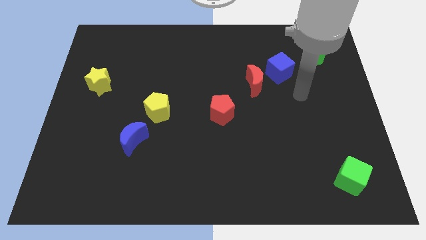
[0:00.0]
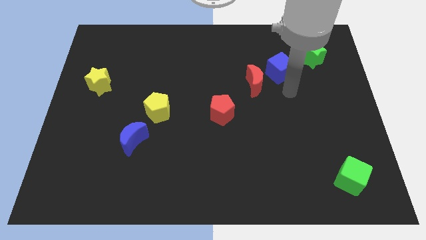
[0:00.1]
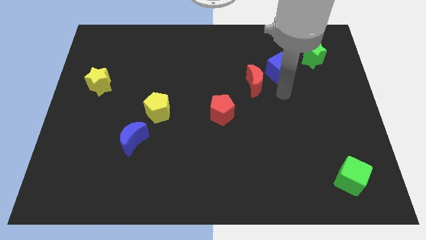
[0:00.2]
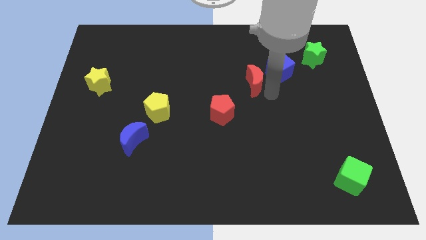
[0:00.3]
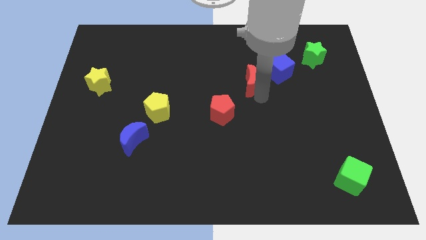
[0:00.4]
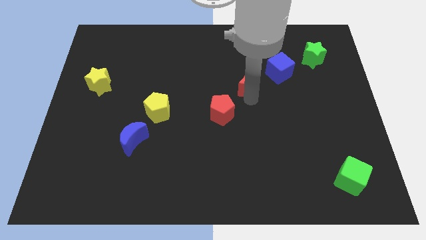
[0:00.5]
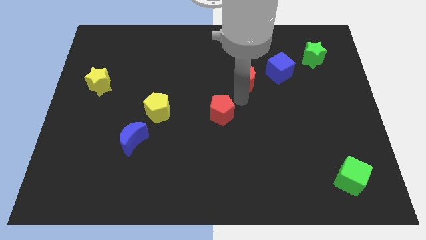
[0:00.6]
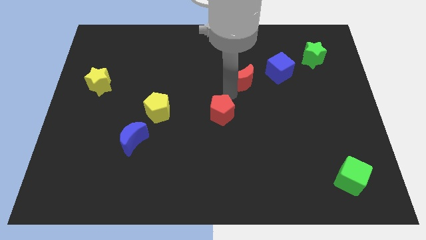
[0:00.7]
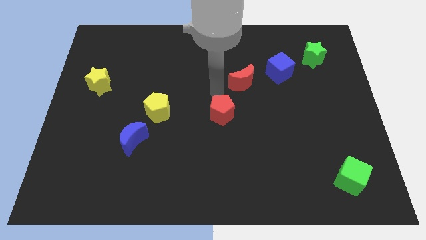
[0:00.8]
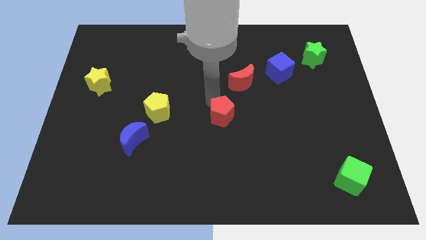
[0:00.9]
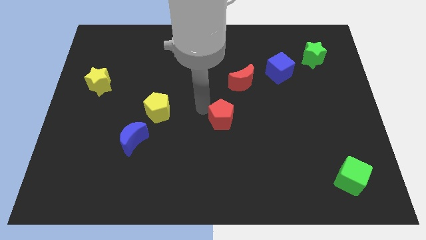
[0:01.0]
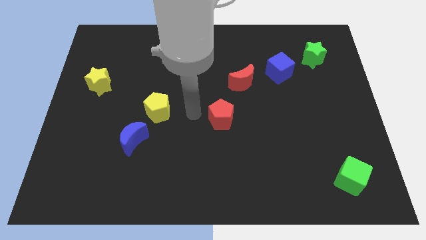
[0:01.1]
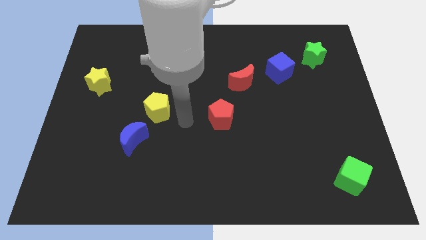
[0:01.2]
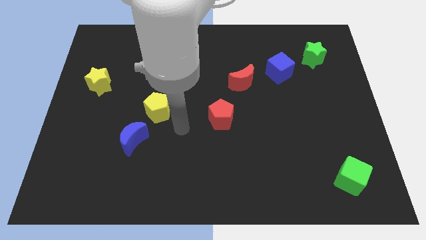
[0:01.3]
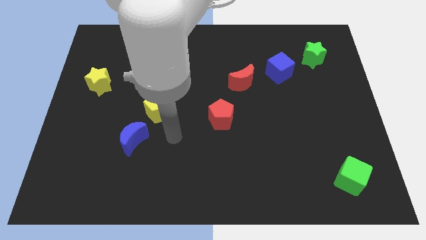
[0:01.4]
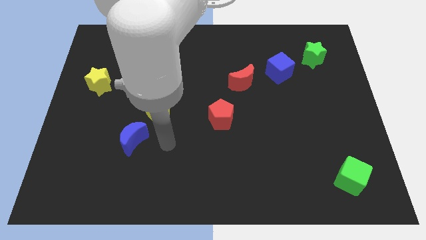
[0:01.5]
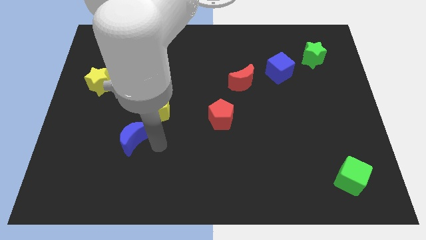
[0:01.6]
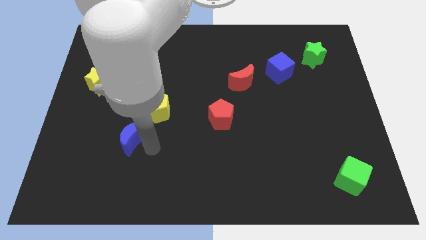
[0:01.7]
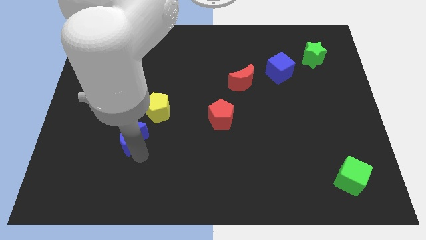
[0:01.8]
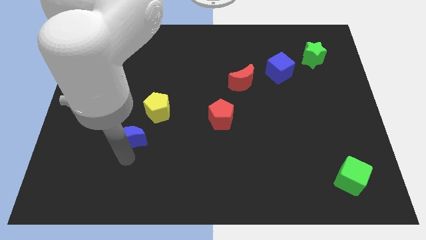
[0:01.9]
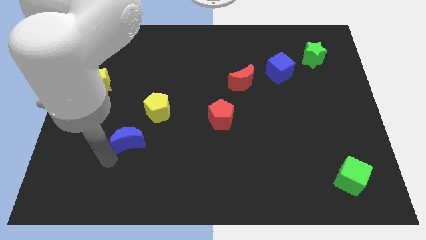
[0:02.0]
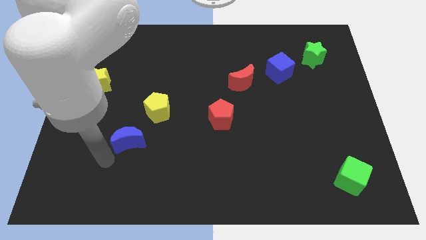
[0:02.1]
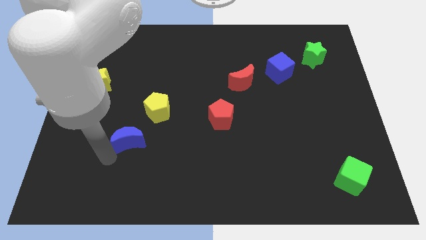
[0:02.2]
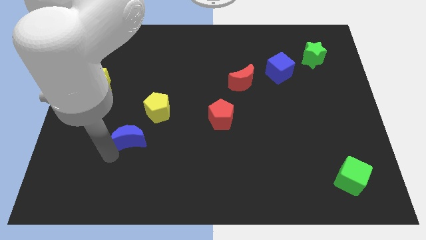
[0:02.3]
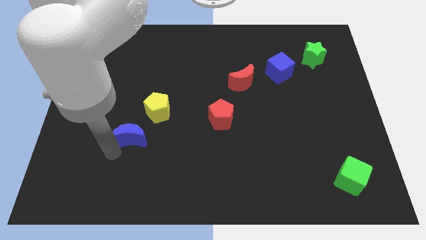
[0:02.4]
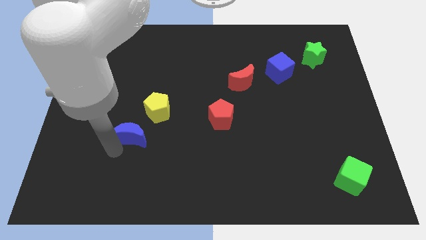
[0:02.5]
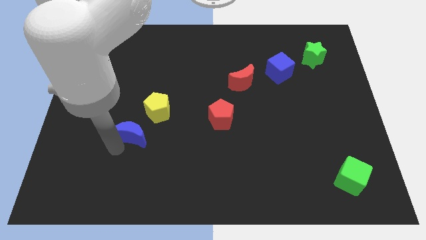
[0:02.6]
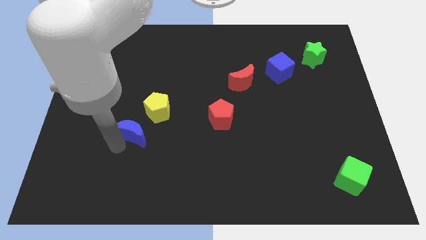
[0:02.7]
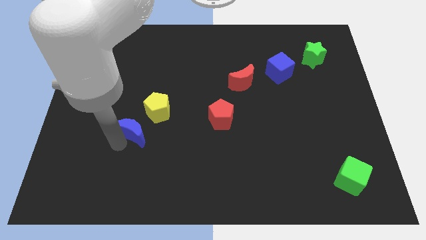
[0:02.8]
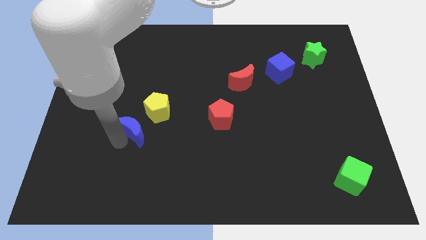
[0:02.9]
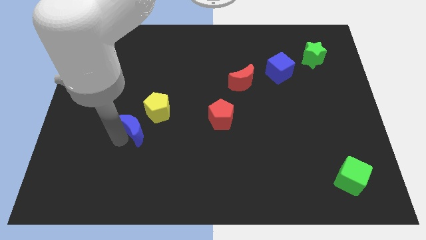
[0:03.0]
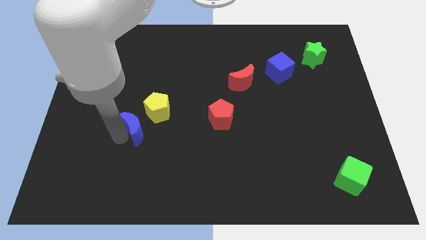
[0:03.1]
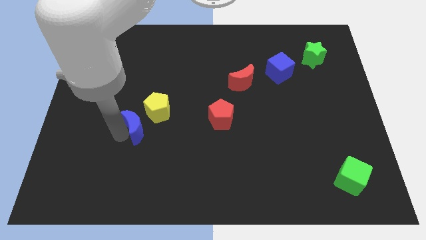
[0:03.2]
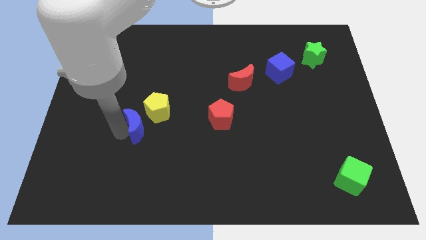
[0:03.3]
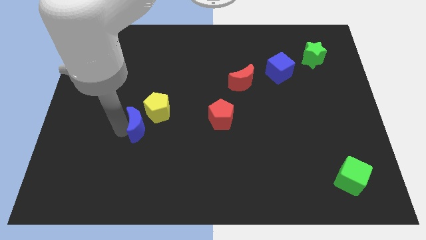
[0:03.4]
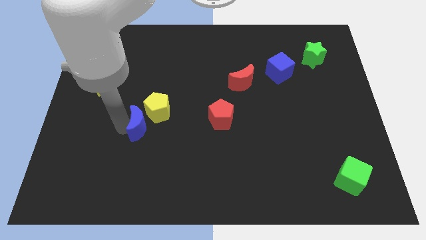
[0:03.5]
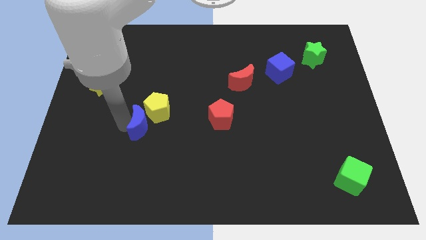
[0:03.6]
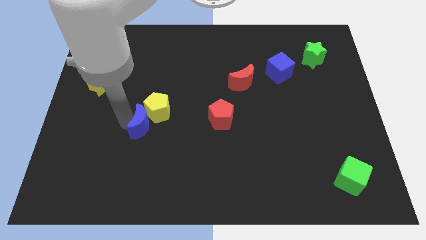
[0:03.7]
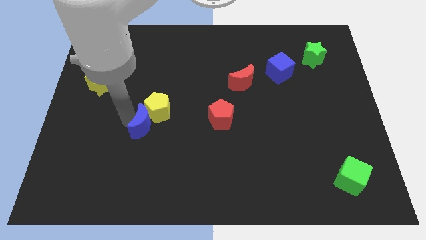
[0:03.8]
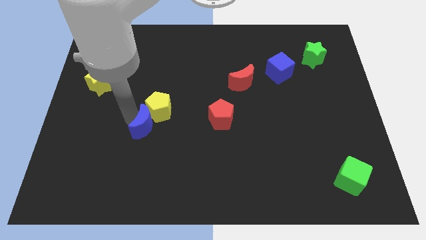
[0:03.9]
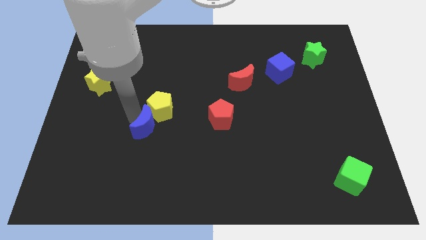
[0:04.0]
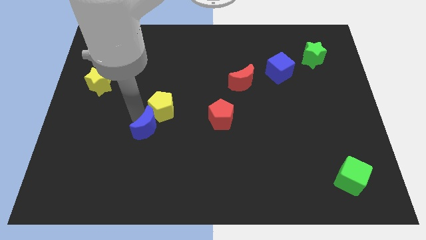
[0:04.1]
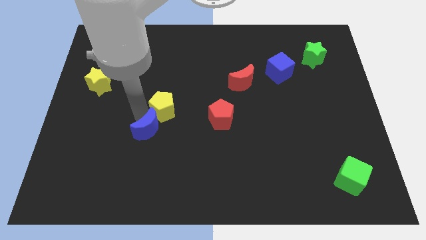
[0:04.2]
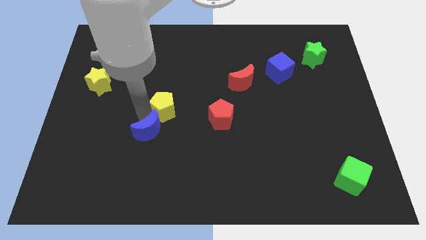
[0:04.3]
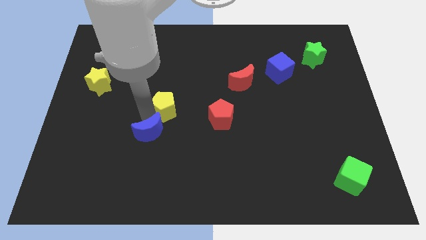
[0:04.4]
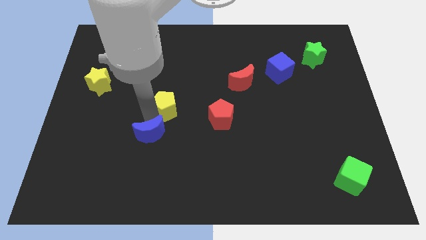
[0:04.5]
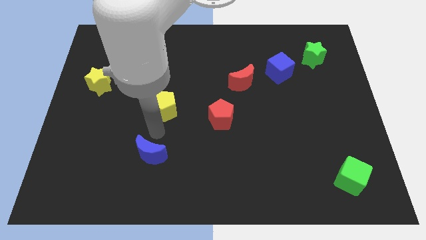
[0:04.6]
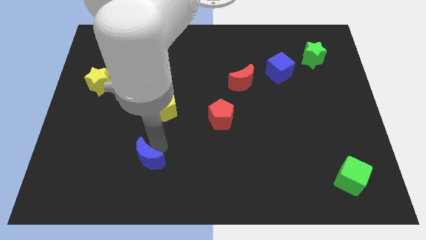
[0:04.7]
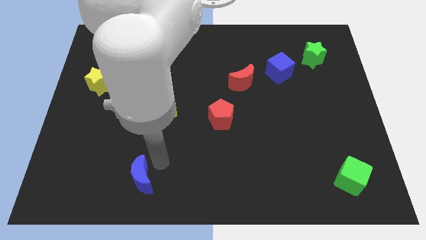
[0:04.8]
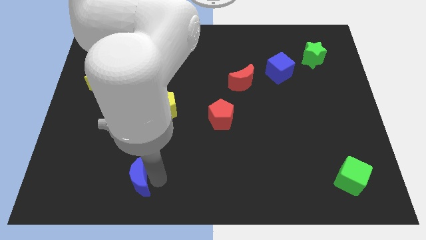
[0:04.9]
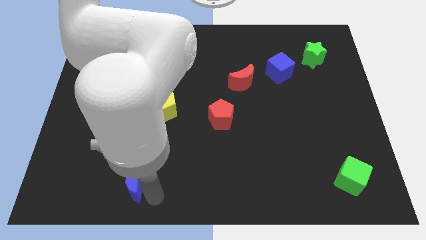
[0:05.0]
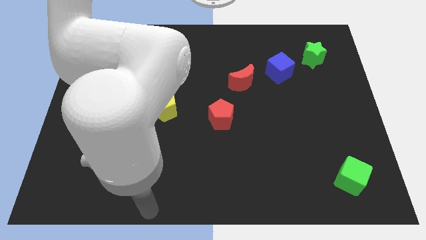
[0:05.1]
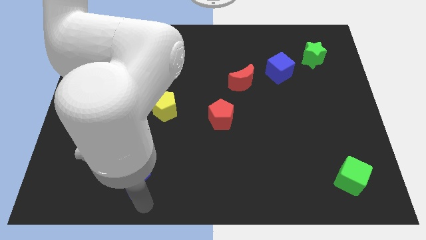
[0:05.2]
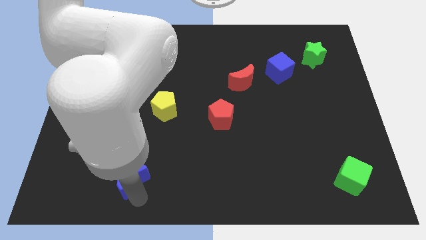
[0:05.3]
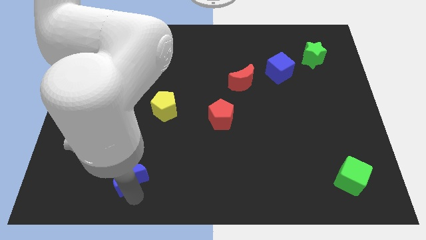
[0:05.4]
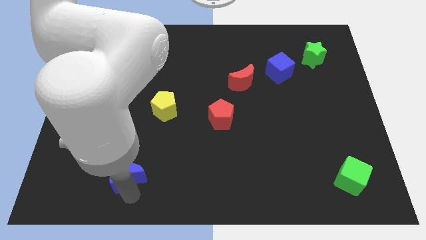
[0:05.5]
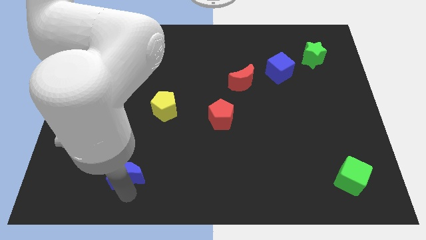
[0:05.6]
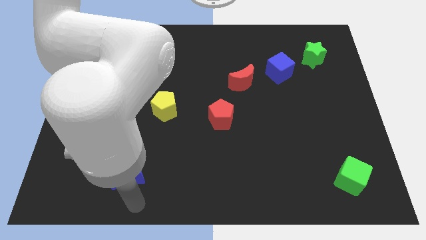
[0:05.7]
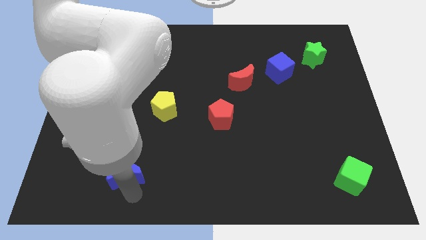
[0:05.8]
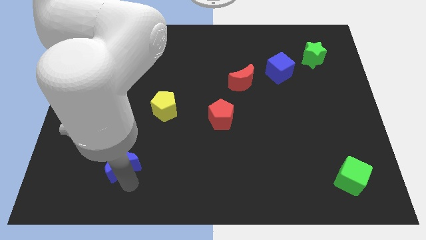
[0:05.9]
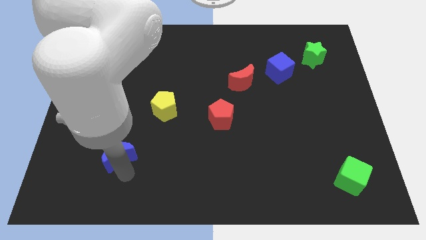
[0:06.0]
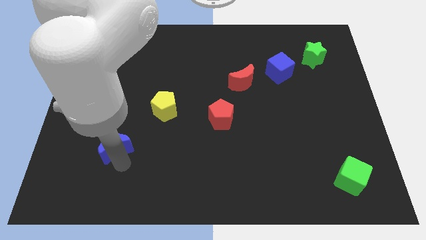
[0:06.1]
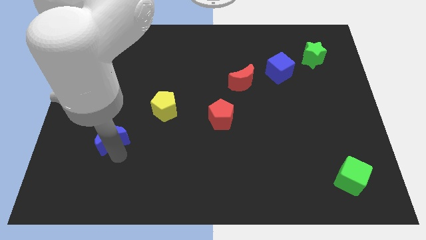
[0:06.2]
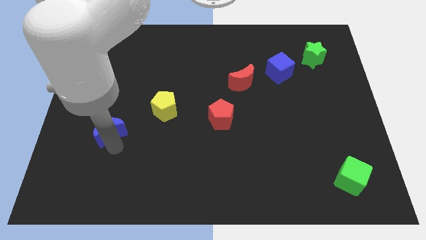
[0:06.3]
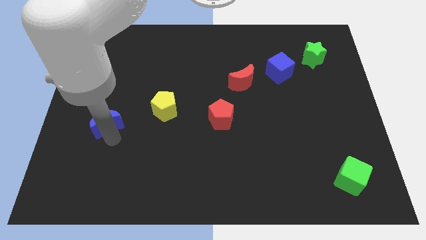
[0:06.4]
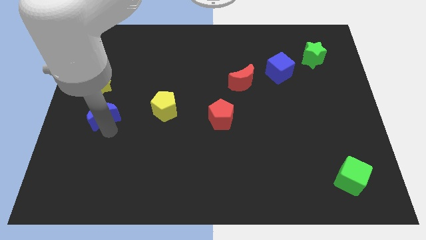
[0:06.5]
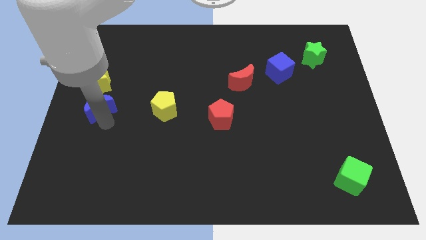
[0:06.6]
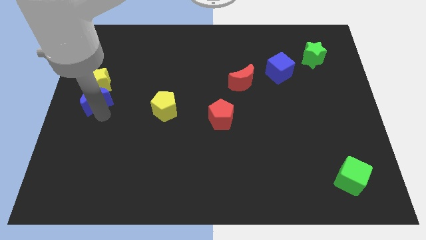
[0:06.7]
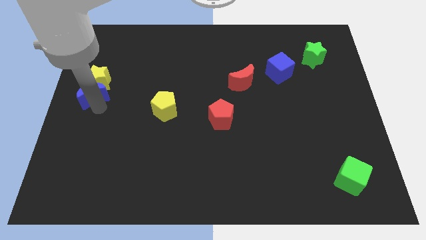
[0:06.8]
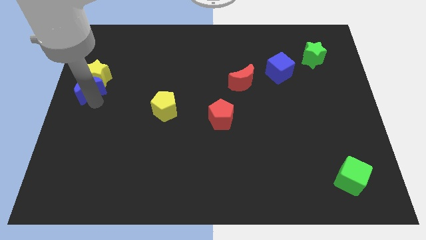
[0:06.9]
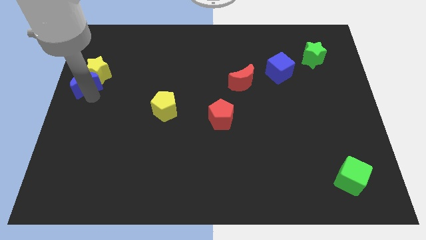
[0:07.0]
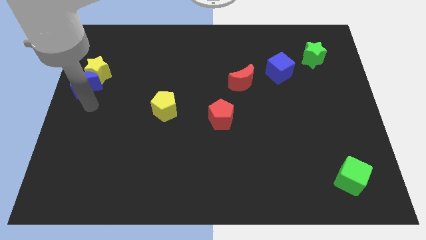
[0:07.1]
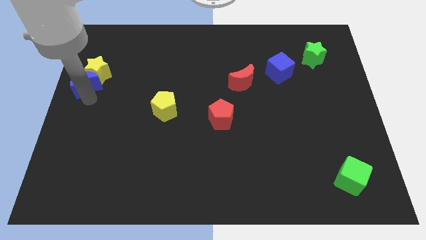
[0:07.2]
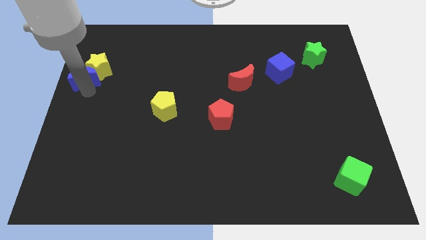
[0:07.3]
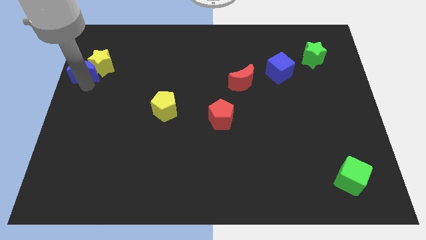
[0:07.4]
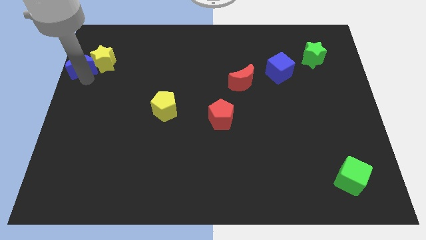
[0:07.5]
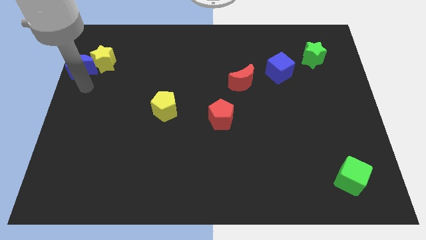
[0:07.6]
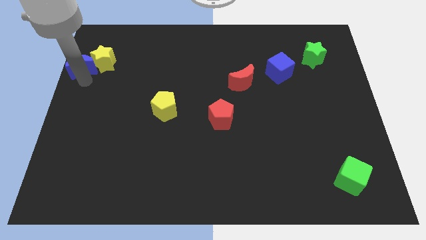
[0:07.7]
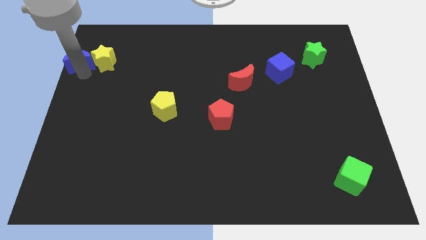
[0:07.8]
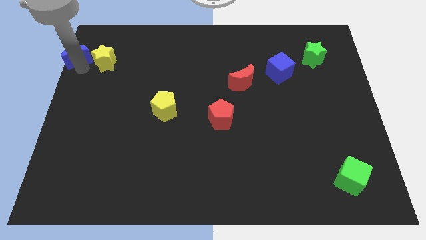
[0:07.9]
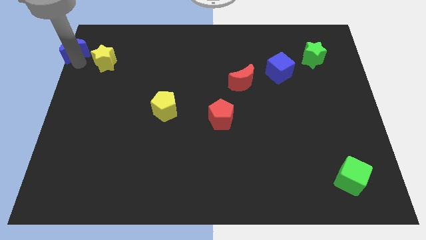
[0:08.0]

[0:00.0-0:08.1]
move the blue moon to the upper left corner
